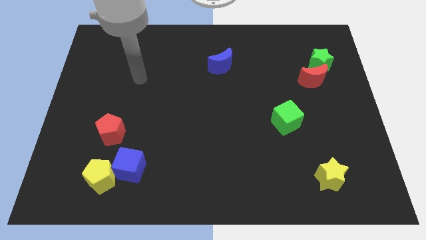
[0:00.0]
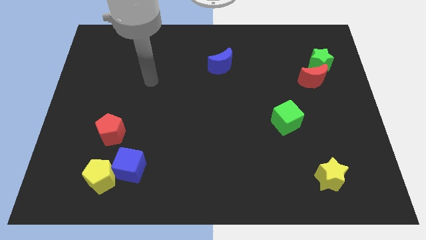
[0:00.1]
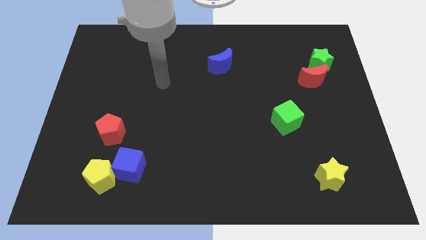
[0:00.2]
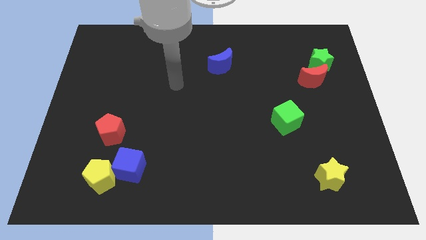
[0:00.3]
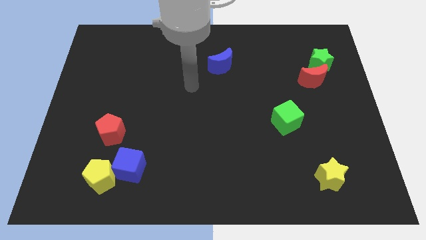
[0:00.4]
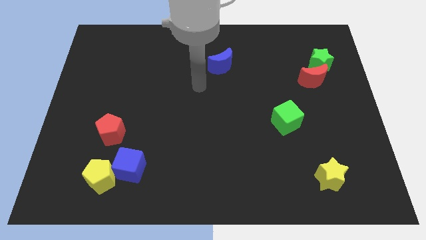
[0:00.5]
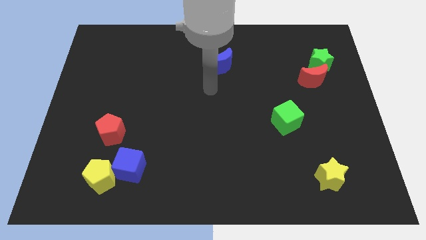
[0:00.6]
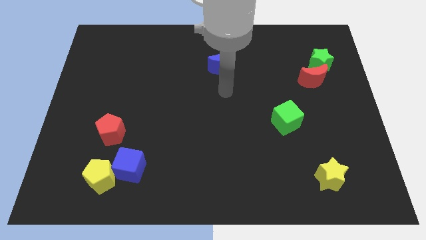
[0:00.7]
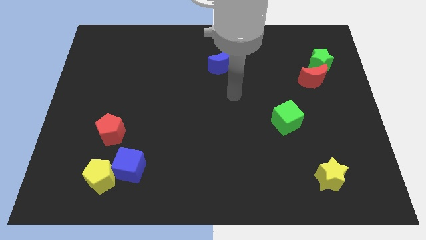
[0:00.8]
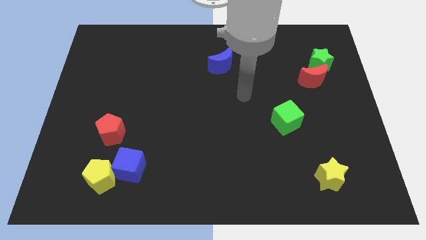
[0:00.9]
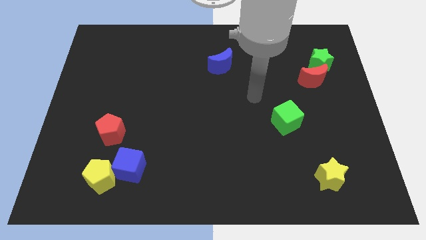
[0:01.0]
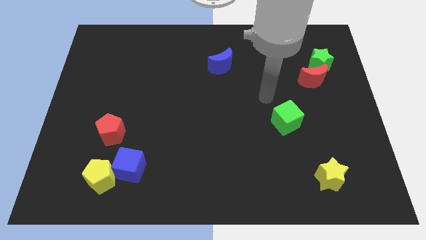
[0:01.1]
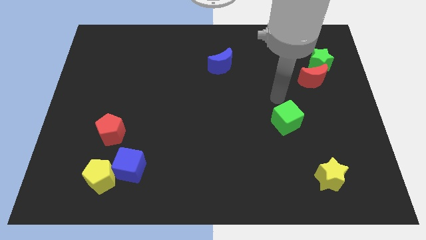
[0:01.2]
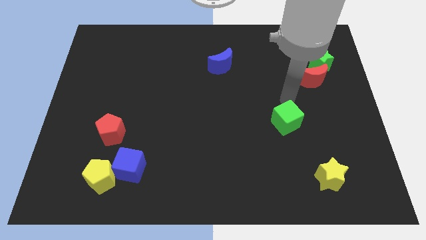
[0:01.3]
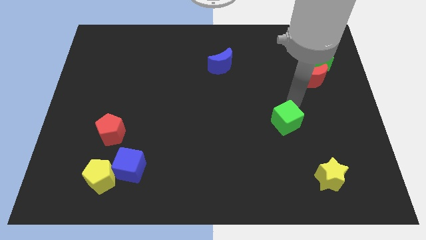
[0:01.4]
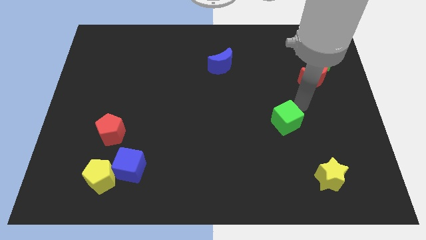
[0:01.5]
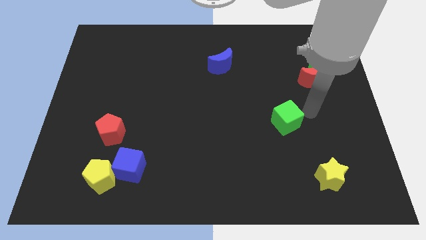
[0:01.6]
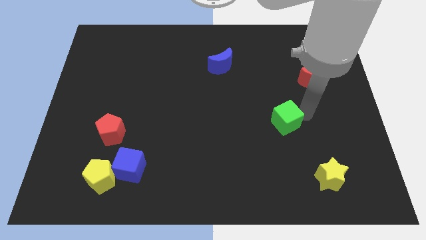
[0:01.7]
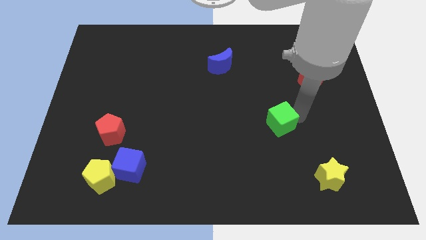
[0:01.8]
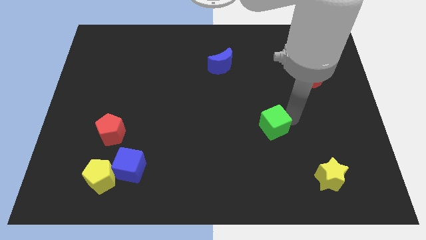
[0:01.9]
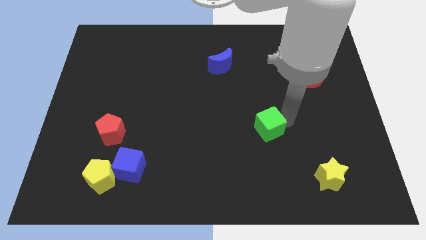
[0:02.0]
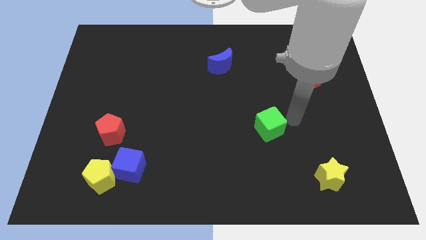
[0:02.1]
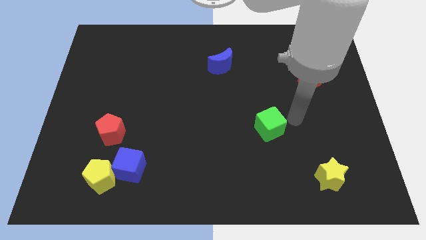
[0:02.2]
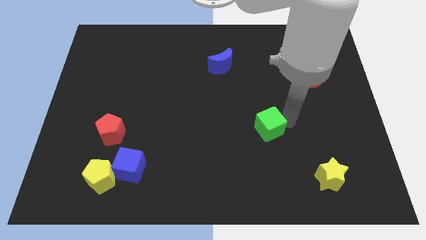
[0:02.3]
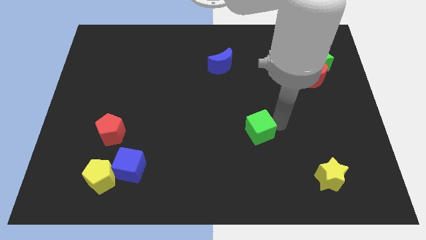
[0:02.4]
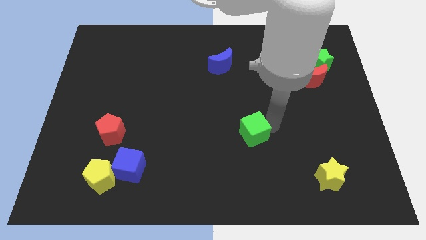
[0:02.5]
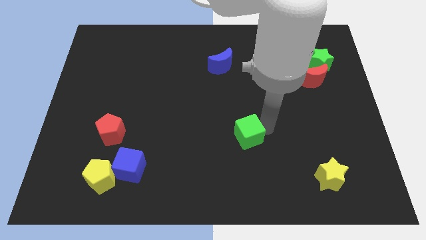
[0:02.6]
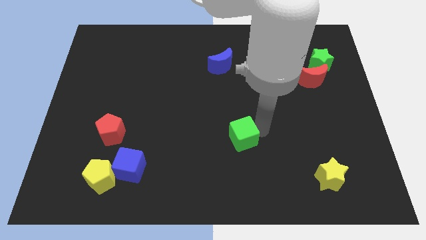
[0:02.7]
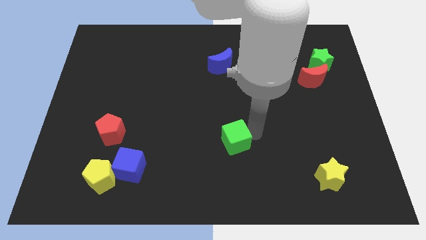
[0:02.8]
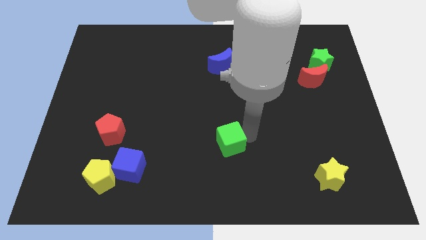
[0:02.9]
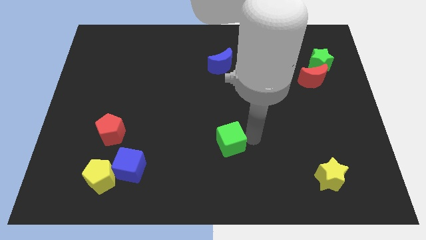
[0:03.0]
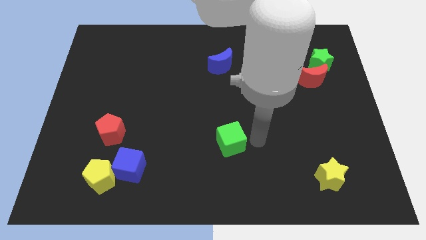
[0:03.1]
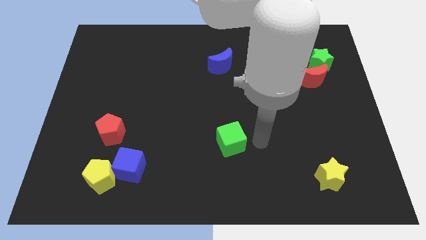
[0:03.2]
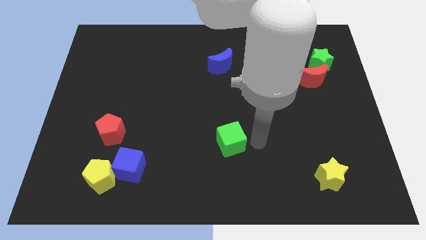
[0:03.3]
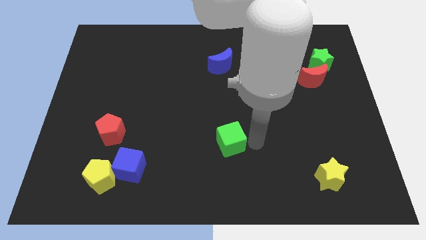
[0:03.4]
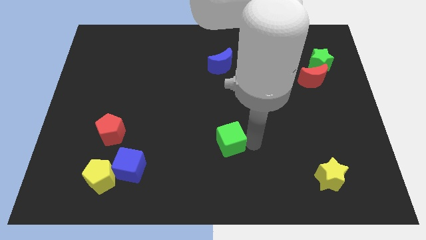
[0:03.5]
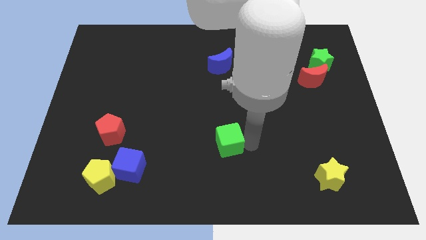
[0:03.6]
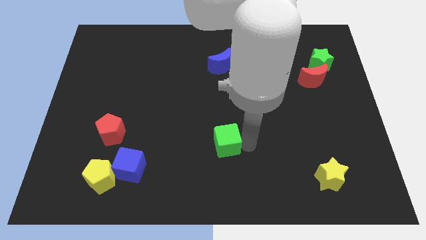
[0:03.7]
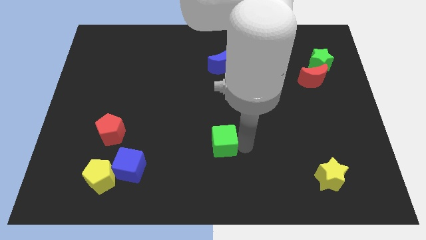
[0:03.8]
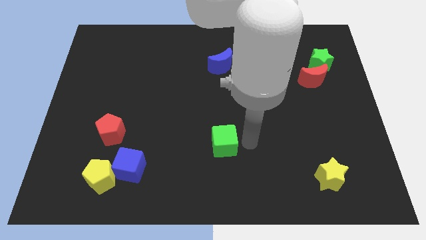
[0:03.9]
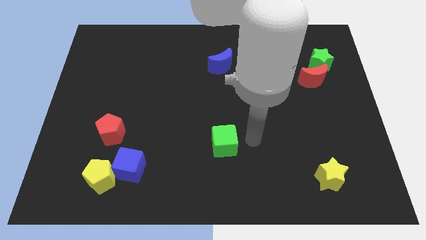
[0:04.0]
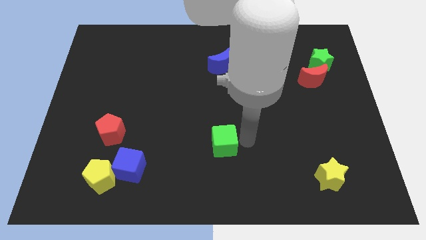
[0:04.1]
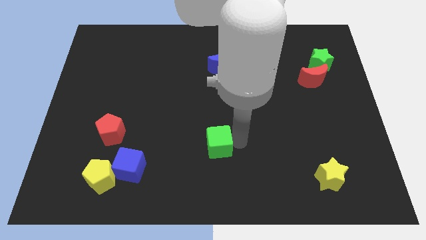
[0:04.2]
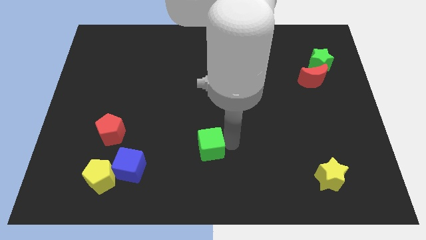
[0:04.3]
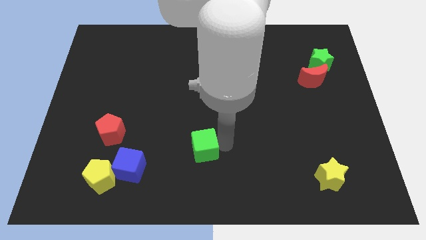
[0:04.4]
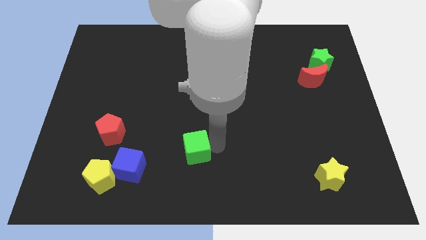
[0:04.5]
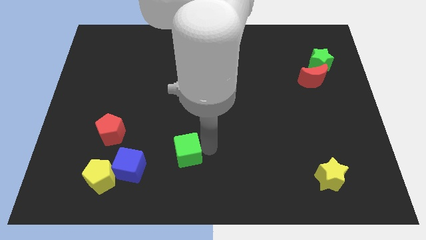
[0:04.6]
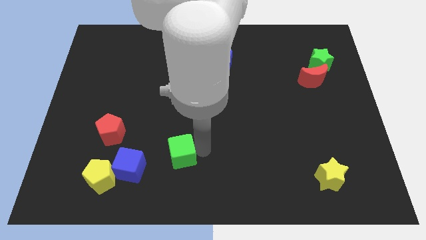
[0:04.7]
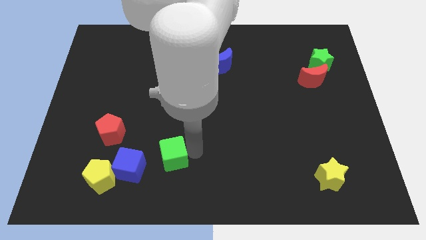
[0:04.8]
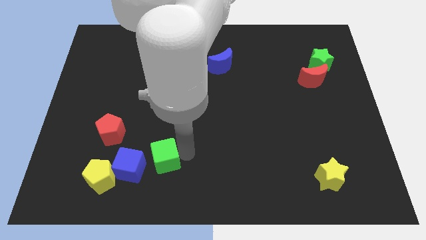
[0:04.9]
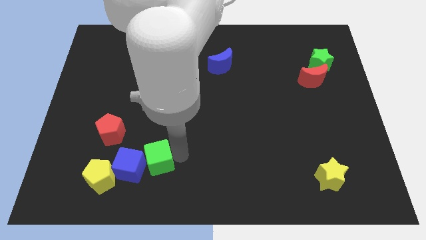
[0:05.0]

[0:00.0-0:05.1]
put the green cube towards the blue cube

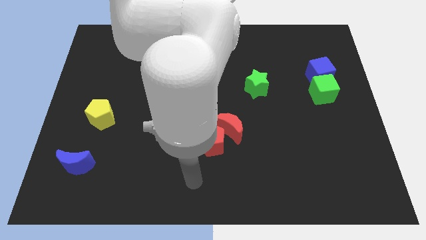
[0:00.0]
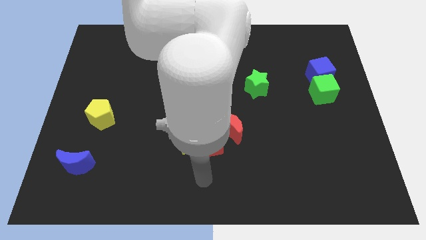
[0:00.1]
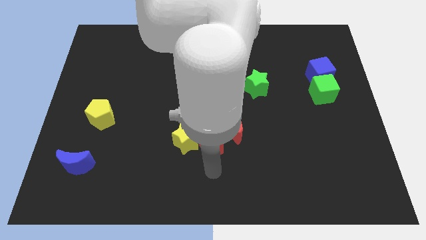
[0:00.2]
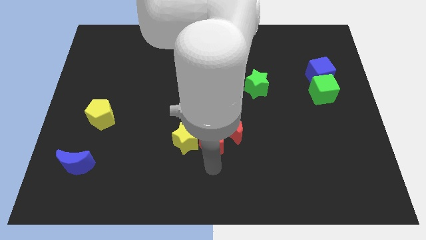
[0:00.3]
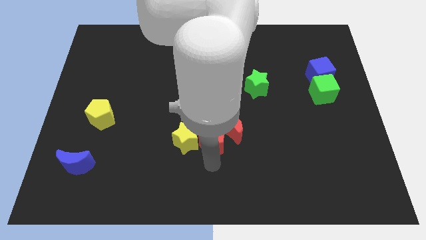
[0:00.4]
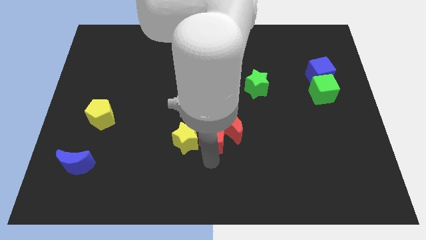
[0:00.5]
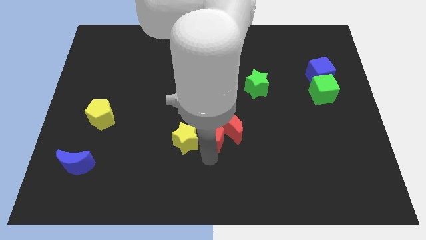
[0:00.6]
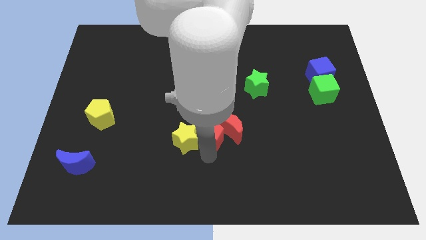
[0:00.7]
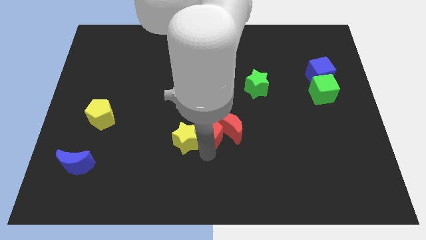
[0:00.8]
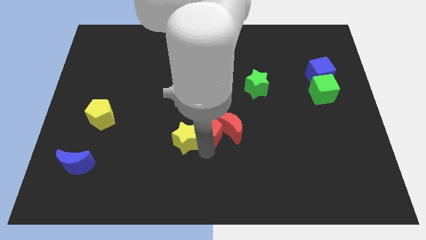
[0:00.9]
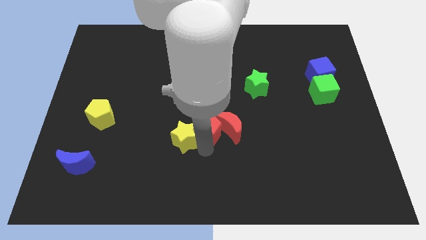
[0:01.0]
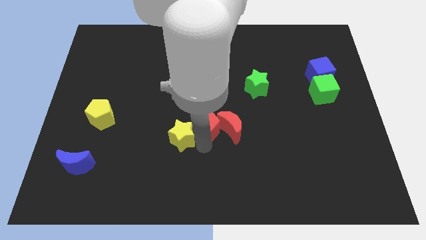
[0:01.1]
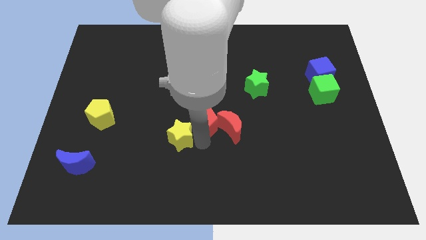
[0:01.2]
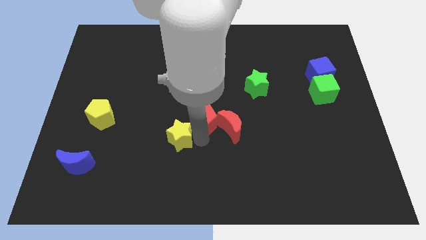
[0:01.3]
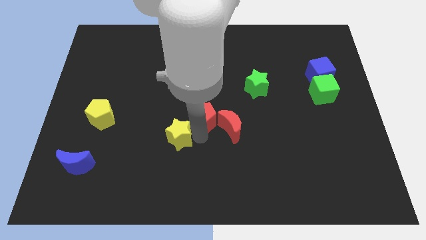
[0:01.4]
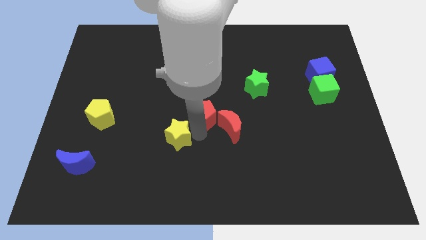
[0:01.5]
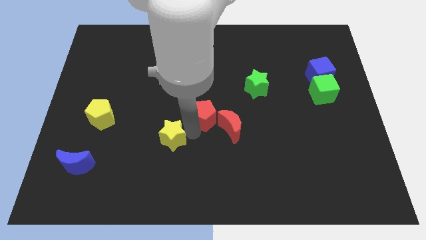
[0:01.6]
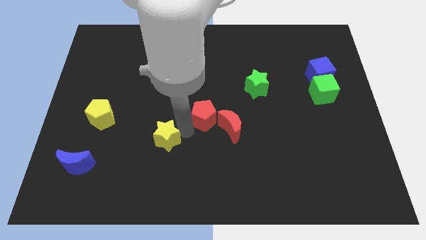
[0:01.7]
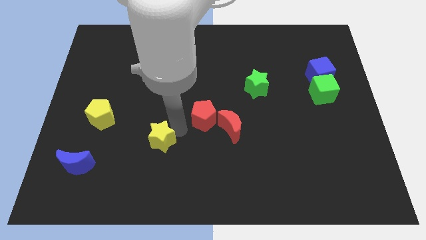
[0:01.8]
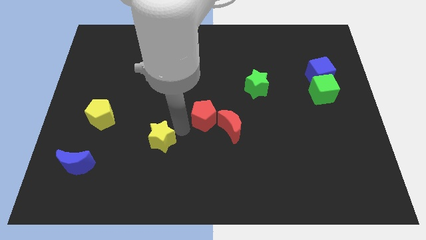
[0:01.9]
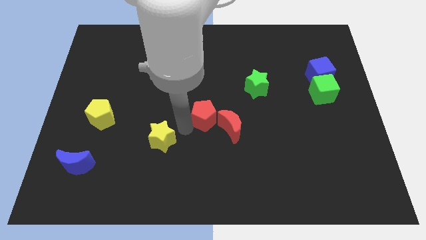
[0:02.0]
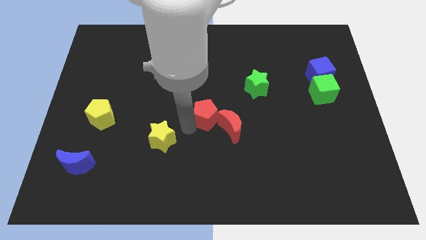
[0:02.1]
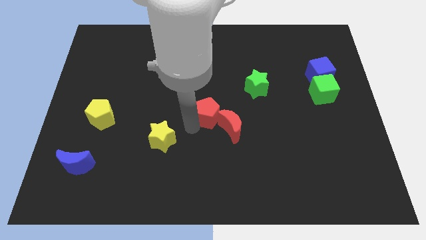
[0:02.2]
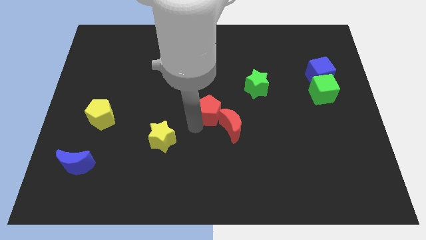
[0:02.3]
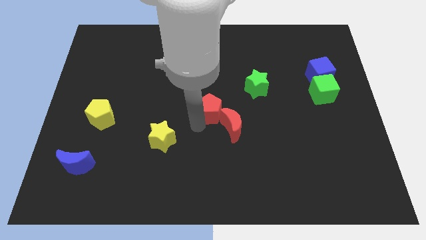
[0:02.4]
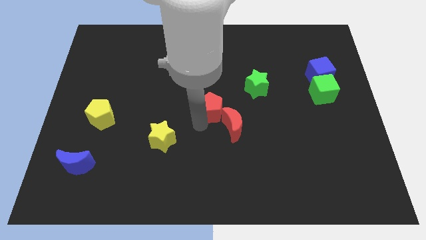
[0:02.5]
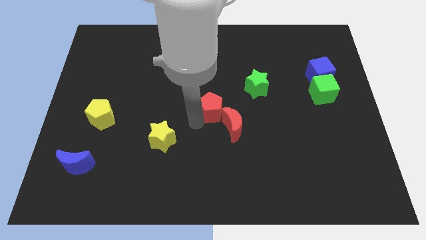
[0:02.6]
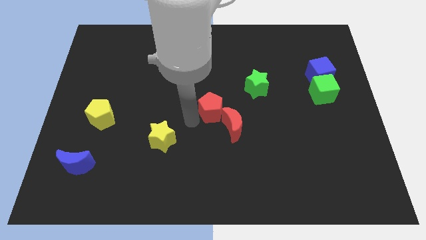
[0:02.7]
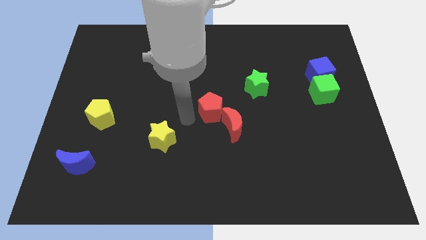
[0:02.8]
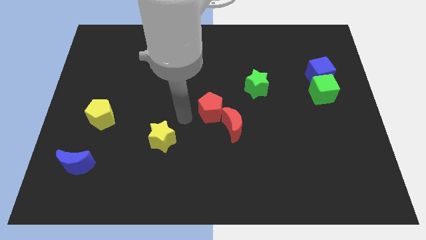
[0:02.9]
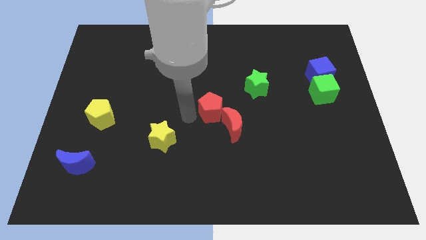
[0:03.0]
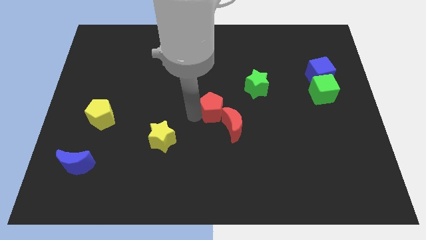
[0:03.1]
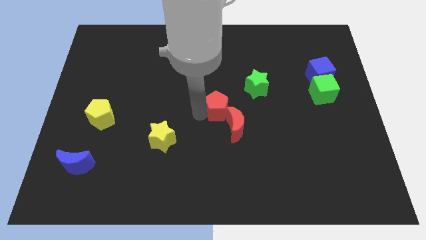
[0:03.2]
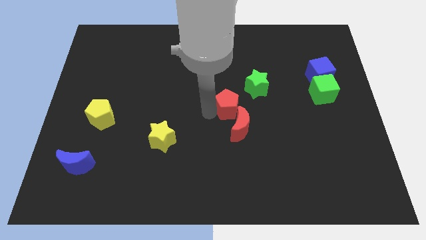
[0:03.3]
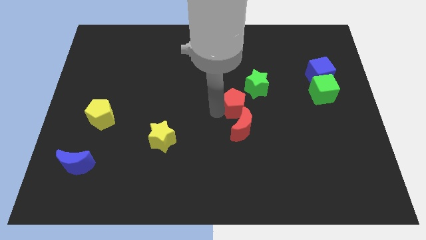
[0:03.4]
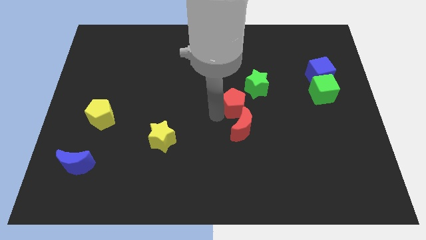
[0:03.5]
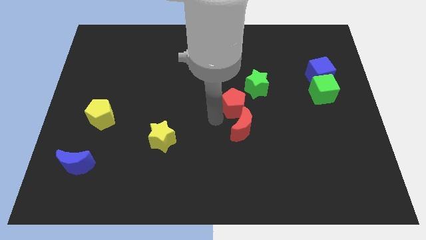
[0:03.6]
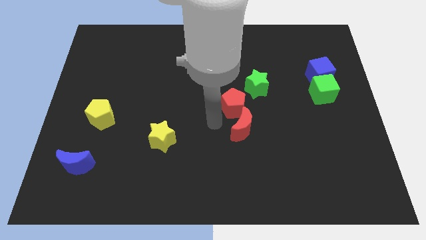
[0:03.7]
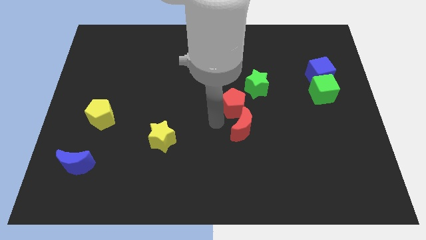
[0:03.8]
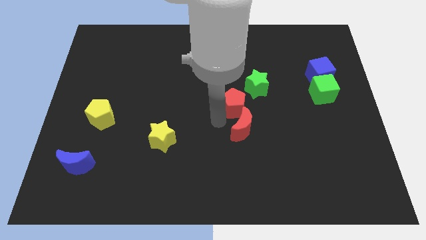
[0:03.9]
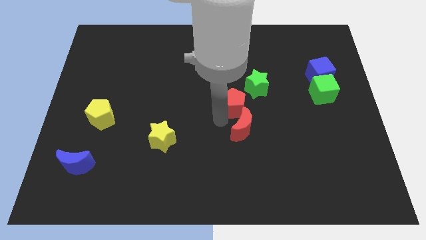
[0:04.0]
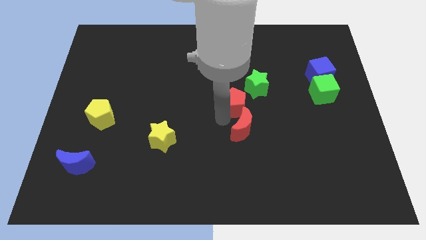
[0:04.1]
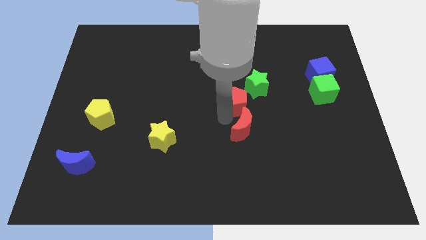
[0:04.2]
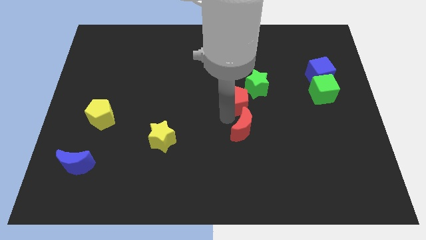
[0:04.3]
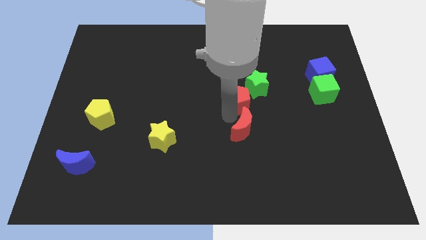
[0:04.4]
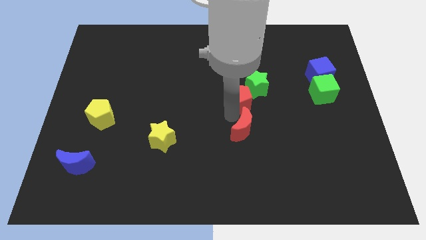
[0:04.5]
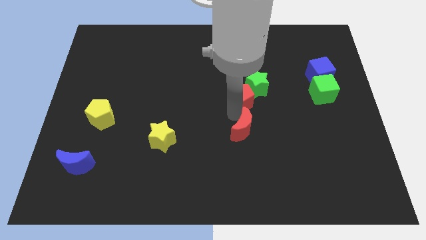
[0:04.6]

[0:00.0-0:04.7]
move the red pentagon towards the green star
